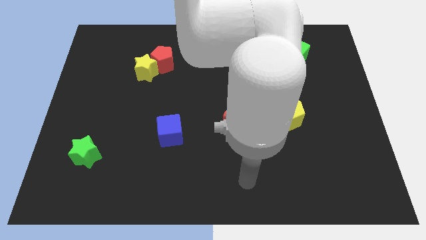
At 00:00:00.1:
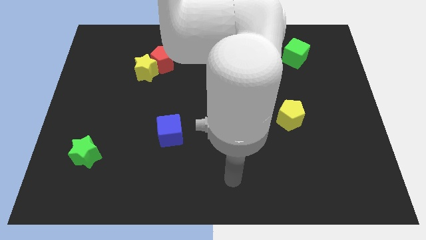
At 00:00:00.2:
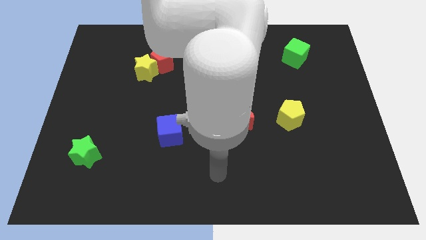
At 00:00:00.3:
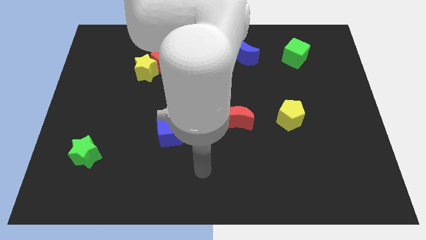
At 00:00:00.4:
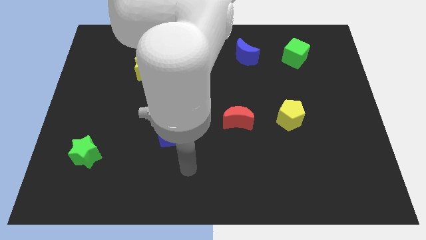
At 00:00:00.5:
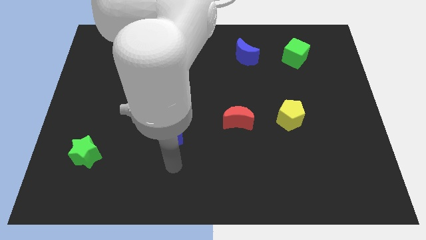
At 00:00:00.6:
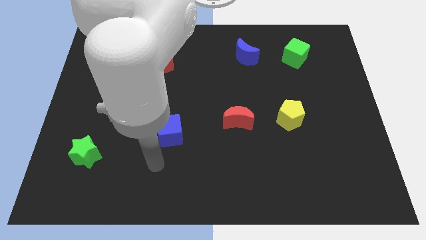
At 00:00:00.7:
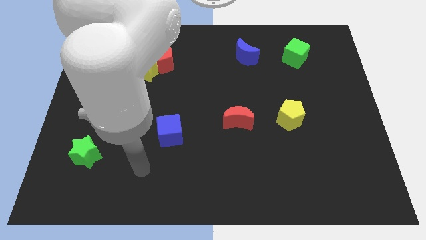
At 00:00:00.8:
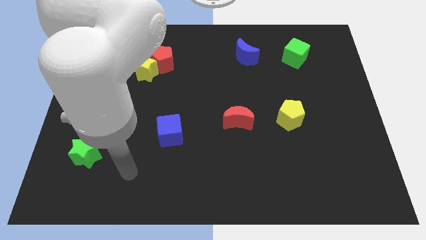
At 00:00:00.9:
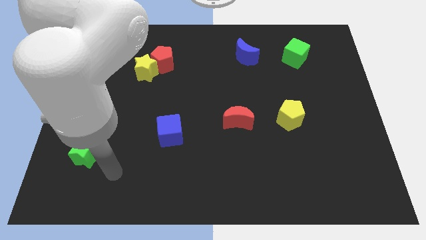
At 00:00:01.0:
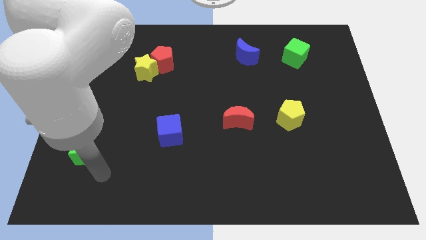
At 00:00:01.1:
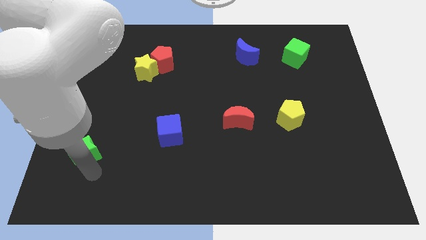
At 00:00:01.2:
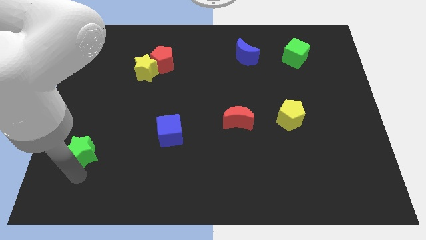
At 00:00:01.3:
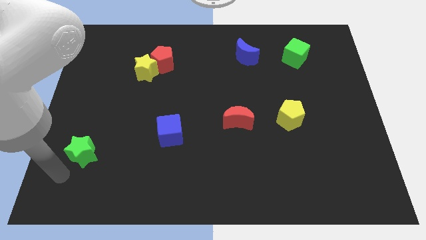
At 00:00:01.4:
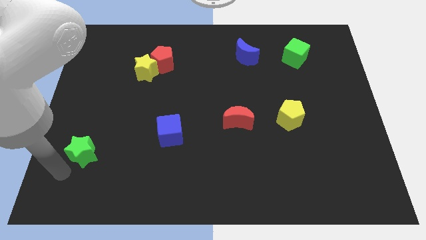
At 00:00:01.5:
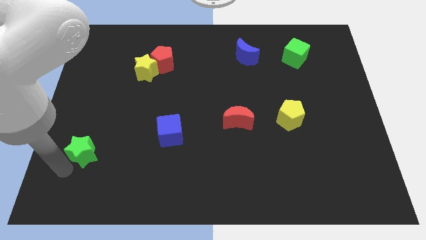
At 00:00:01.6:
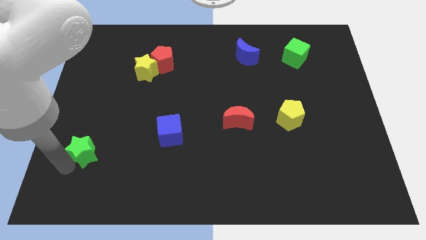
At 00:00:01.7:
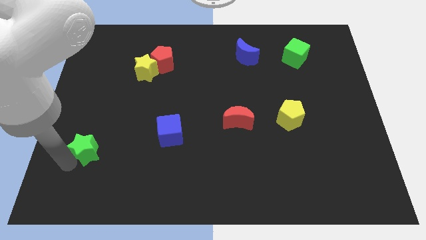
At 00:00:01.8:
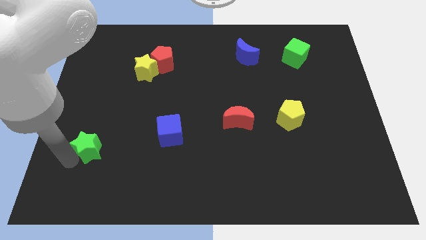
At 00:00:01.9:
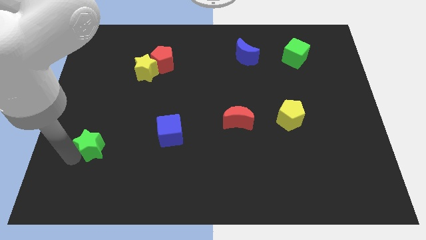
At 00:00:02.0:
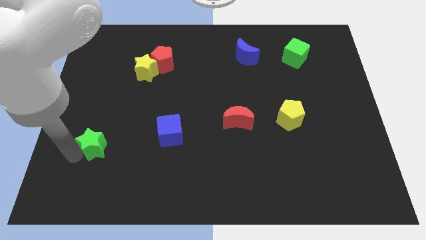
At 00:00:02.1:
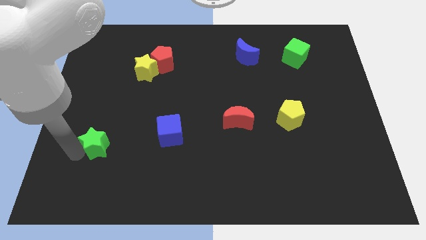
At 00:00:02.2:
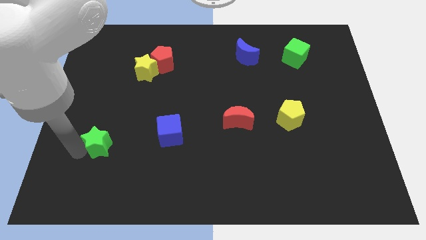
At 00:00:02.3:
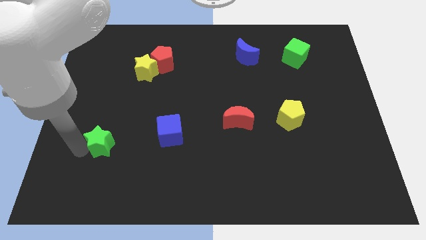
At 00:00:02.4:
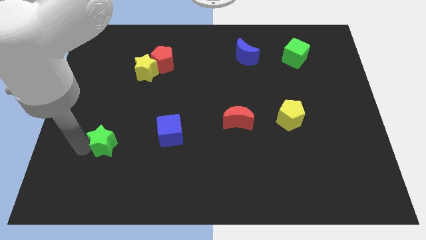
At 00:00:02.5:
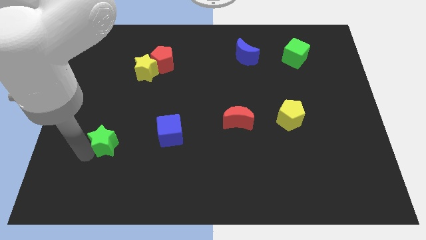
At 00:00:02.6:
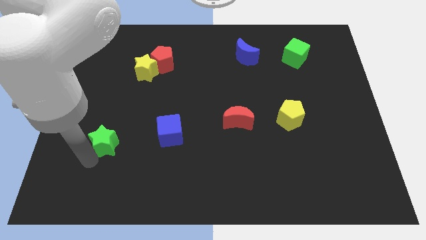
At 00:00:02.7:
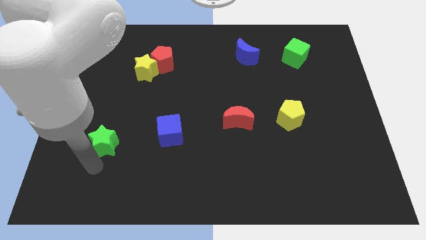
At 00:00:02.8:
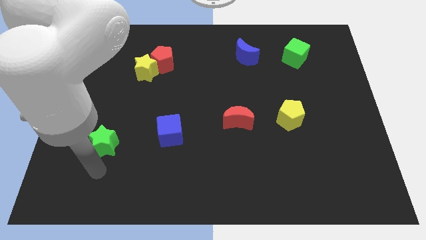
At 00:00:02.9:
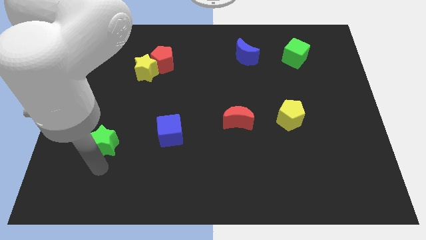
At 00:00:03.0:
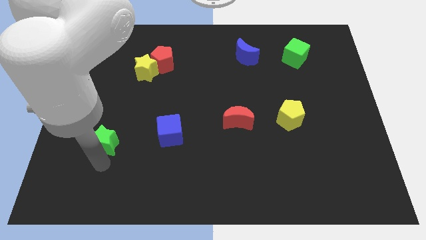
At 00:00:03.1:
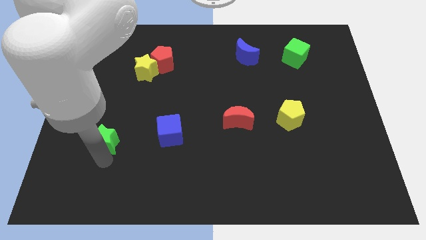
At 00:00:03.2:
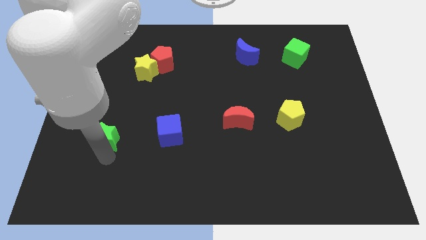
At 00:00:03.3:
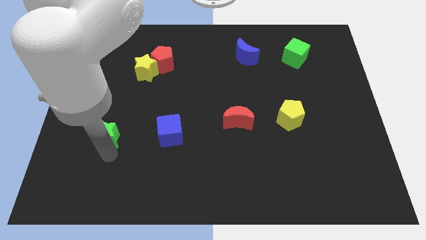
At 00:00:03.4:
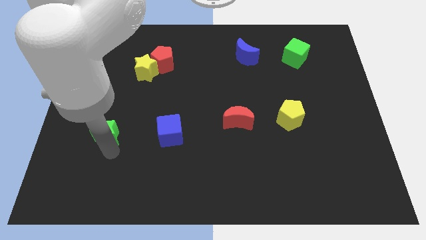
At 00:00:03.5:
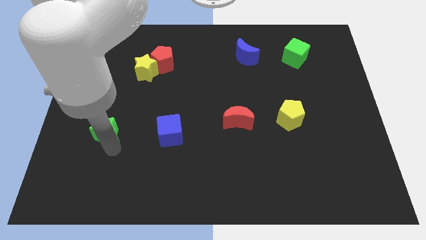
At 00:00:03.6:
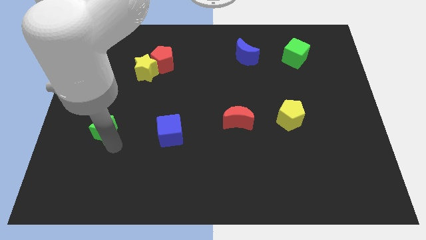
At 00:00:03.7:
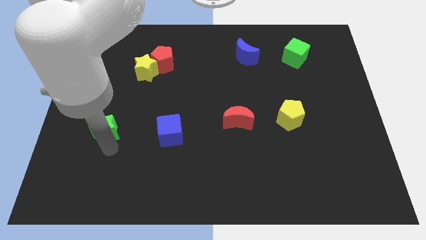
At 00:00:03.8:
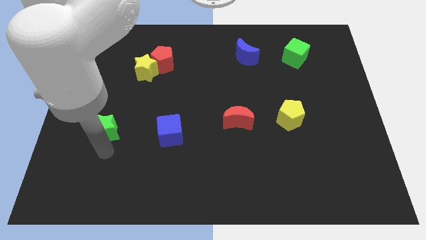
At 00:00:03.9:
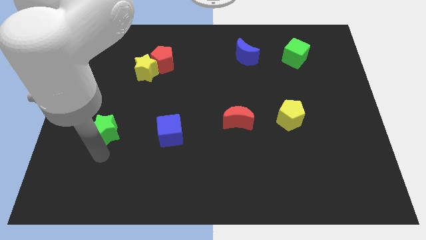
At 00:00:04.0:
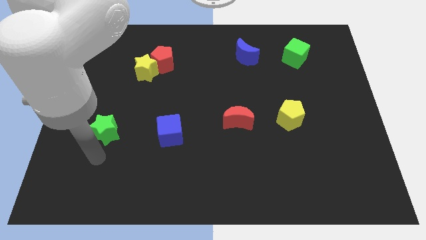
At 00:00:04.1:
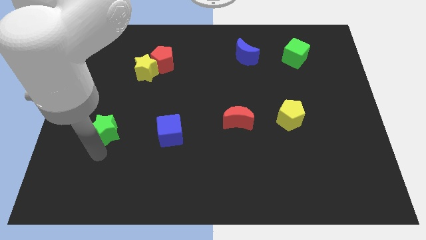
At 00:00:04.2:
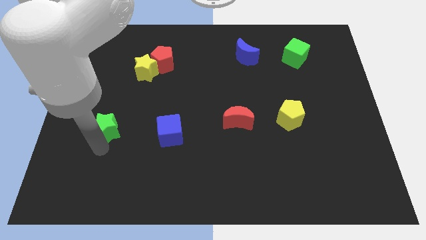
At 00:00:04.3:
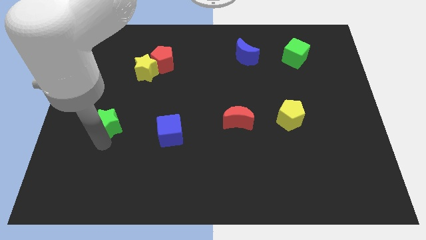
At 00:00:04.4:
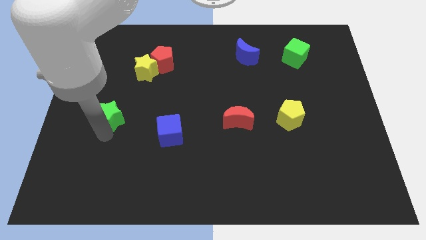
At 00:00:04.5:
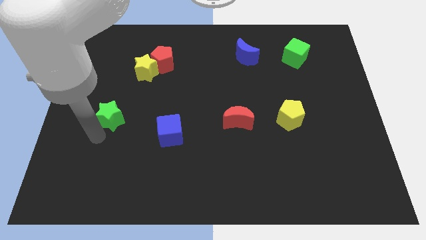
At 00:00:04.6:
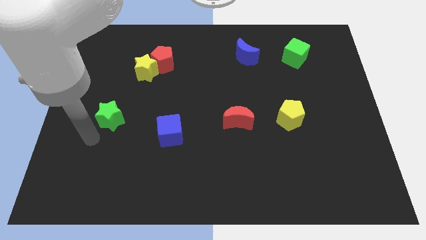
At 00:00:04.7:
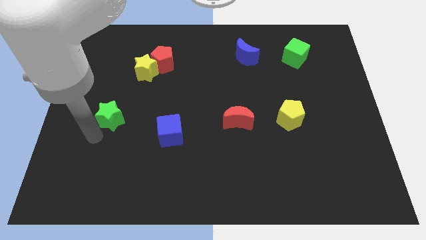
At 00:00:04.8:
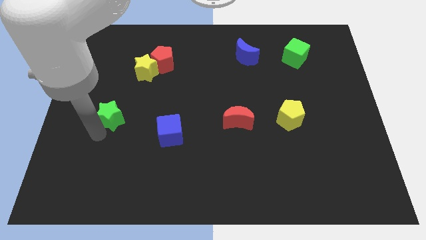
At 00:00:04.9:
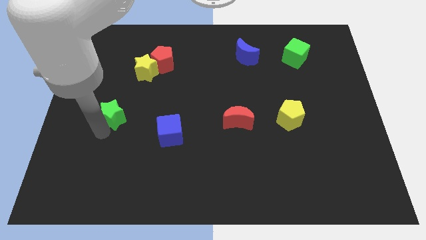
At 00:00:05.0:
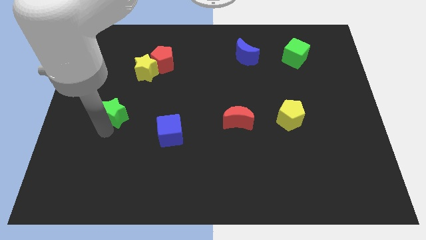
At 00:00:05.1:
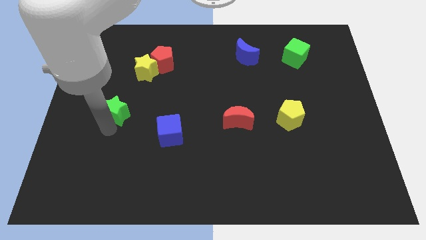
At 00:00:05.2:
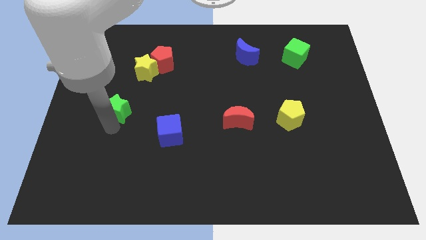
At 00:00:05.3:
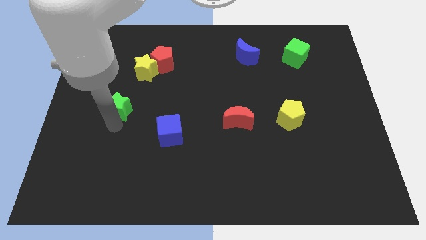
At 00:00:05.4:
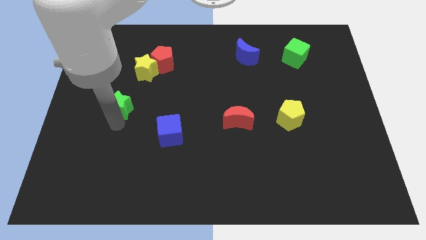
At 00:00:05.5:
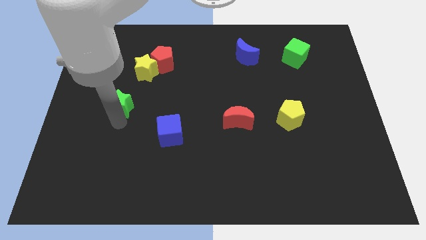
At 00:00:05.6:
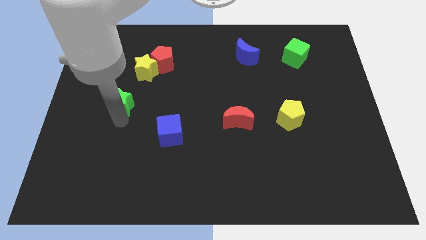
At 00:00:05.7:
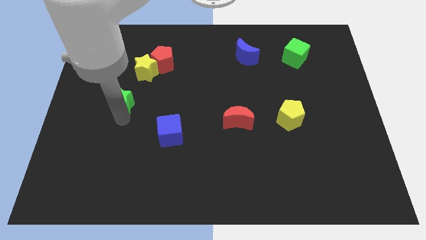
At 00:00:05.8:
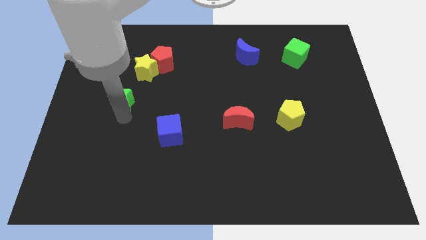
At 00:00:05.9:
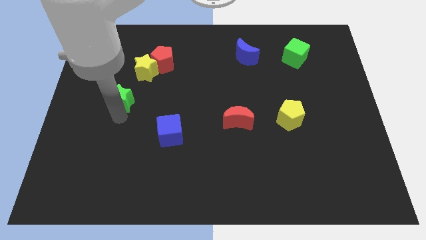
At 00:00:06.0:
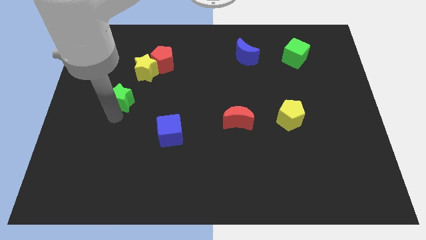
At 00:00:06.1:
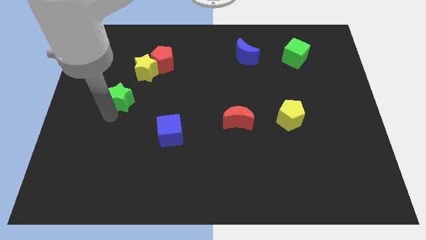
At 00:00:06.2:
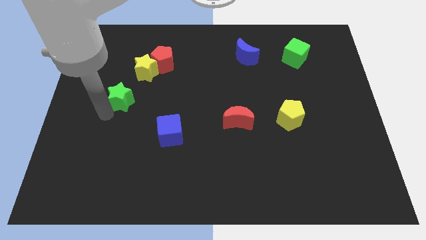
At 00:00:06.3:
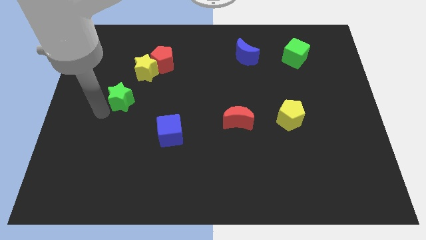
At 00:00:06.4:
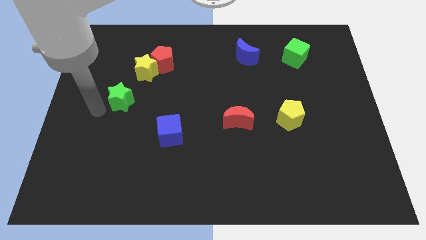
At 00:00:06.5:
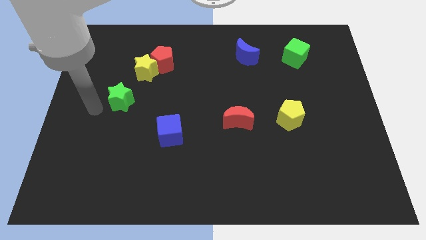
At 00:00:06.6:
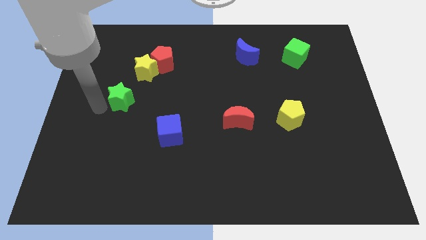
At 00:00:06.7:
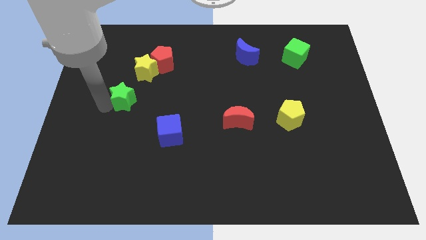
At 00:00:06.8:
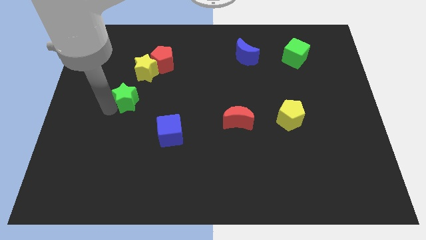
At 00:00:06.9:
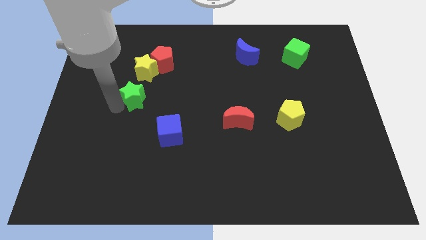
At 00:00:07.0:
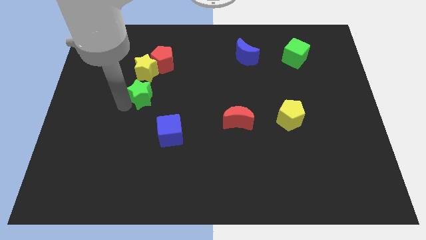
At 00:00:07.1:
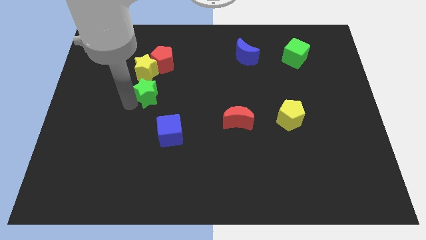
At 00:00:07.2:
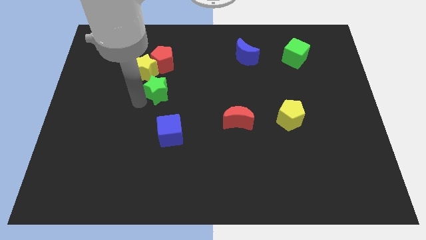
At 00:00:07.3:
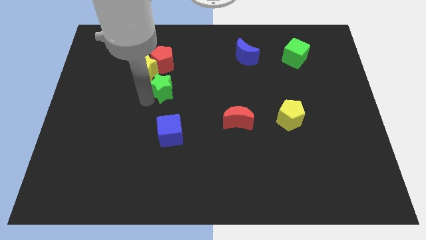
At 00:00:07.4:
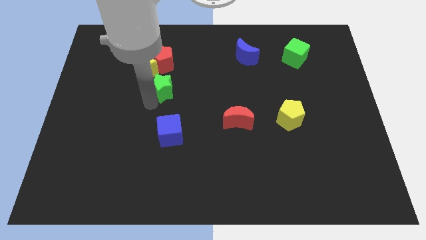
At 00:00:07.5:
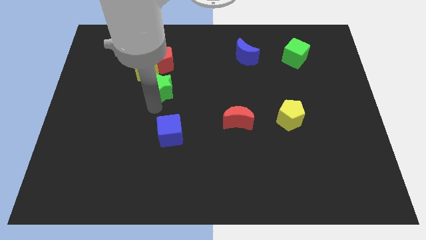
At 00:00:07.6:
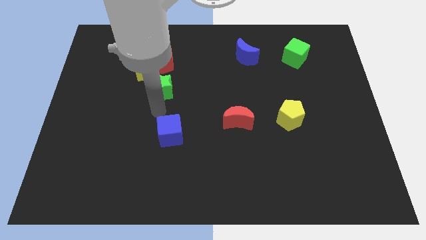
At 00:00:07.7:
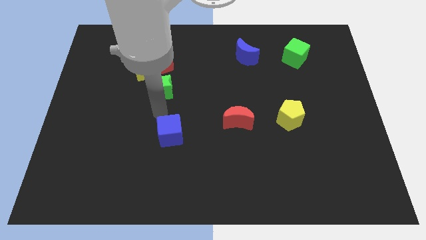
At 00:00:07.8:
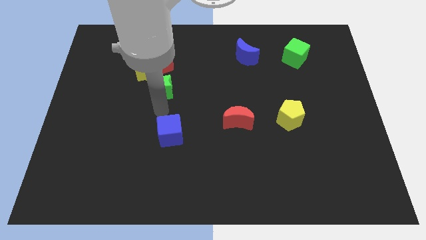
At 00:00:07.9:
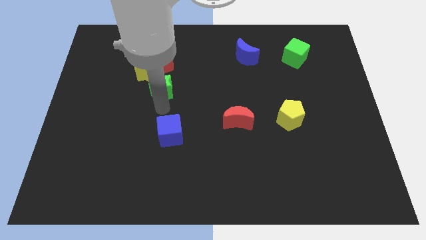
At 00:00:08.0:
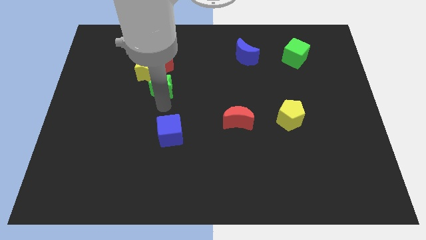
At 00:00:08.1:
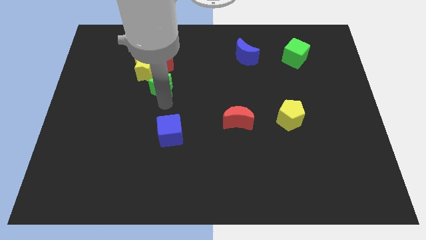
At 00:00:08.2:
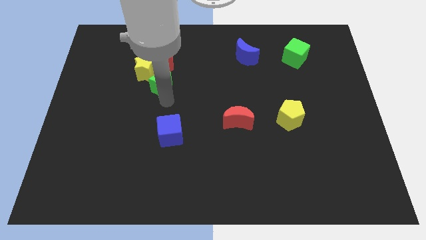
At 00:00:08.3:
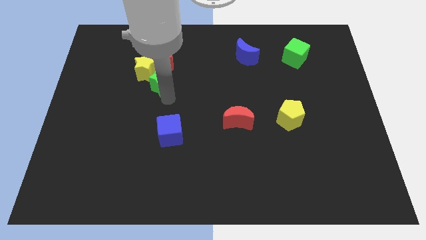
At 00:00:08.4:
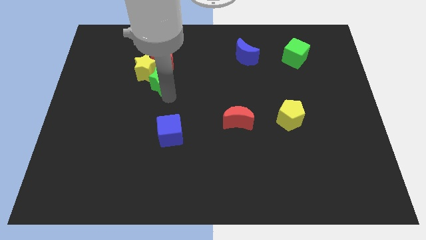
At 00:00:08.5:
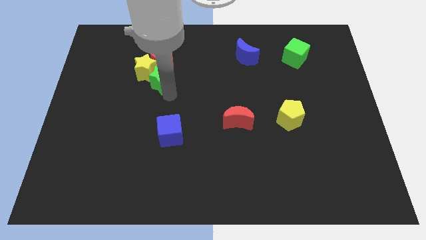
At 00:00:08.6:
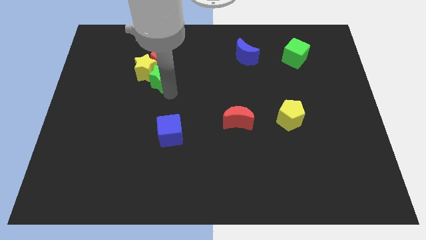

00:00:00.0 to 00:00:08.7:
slide the green star towards the red pentagon
